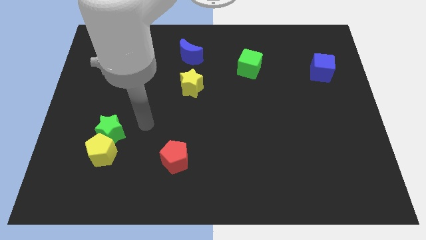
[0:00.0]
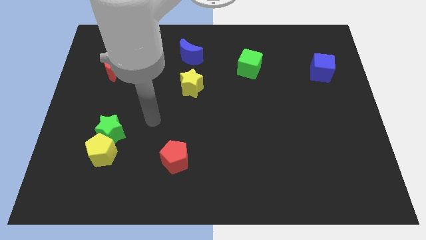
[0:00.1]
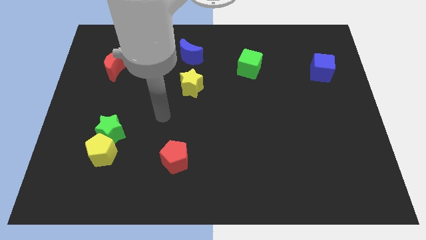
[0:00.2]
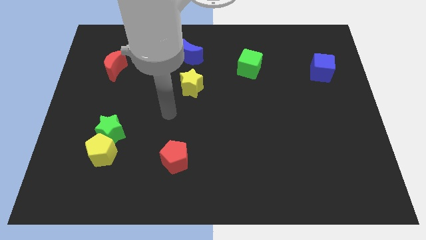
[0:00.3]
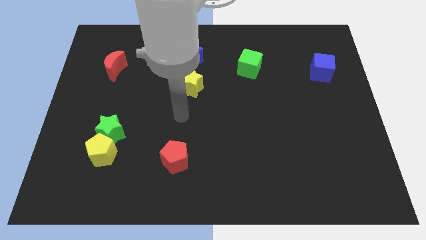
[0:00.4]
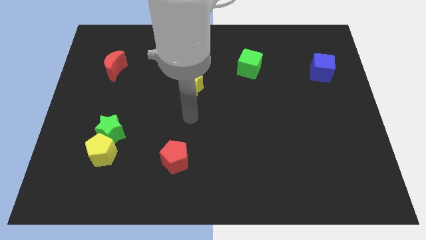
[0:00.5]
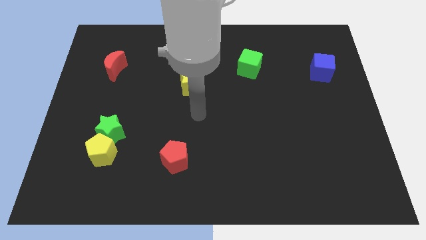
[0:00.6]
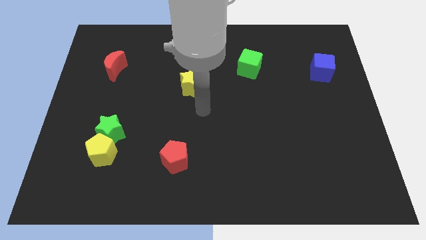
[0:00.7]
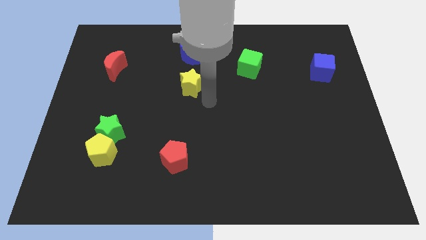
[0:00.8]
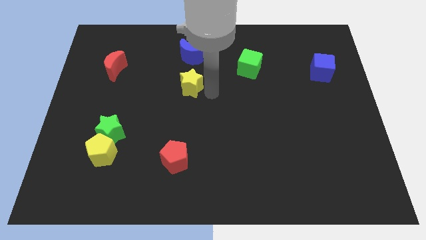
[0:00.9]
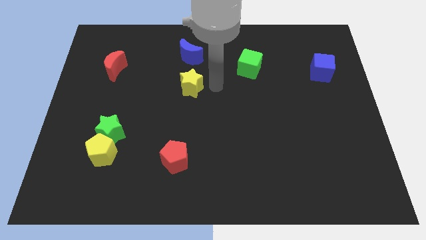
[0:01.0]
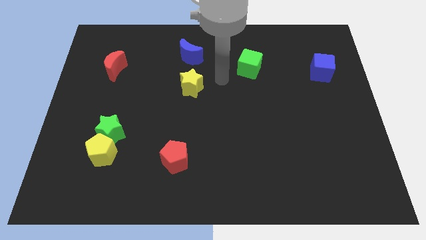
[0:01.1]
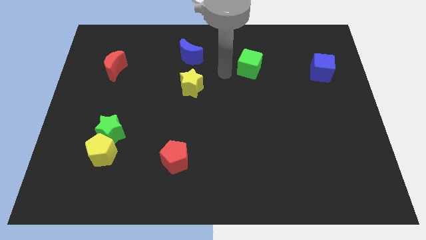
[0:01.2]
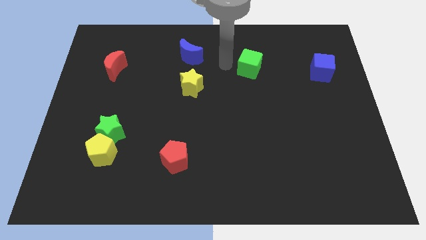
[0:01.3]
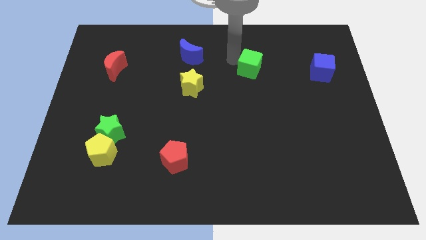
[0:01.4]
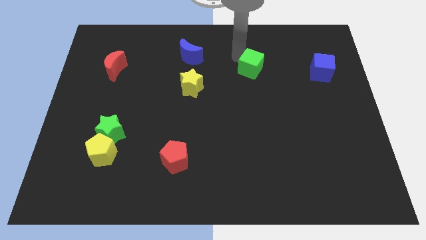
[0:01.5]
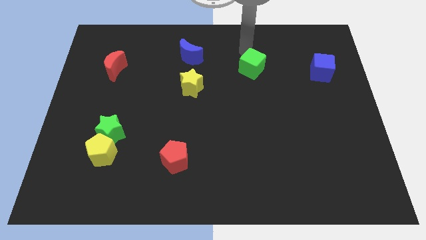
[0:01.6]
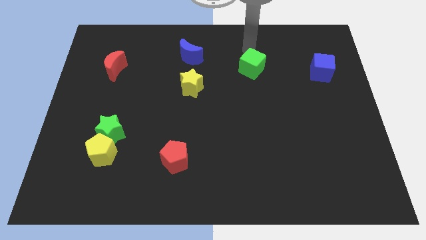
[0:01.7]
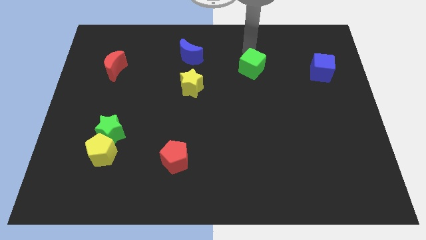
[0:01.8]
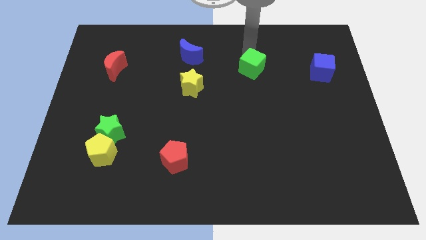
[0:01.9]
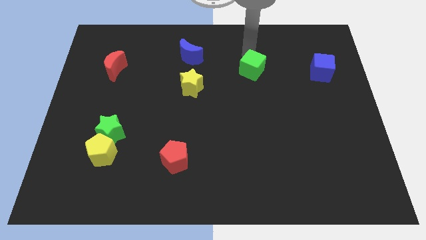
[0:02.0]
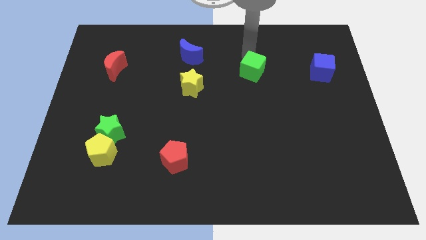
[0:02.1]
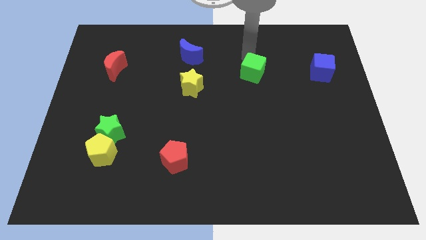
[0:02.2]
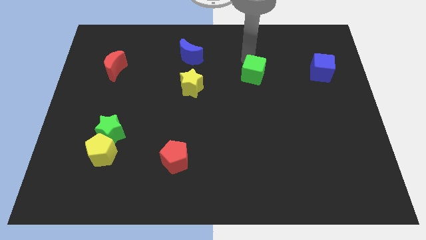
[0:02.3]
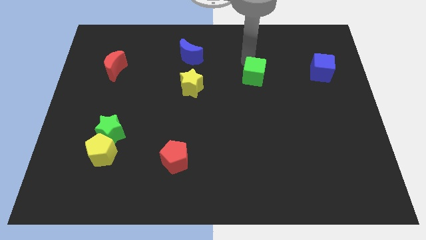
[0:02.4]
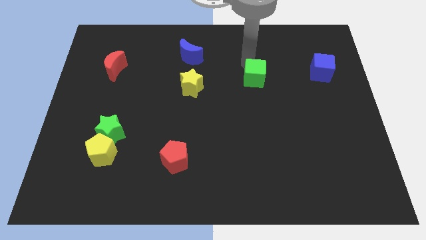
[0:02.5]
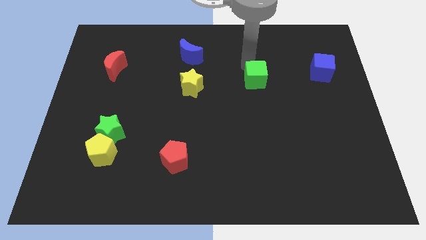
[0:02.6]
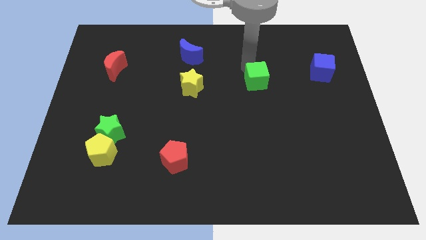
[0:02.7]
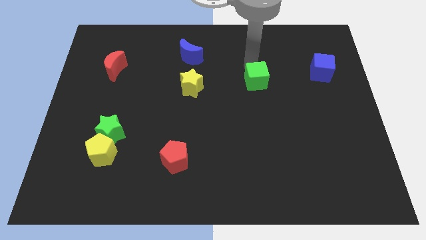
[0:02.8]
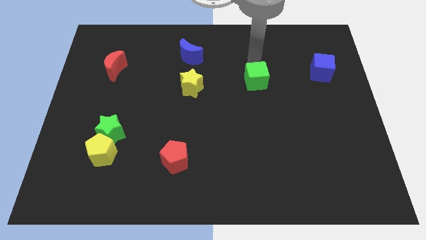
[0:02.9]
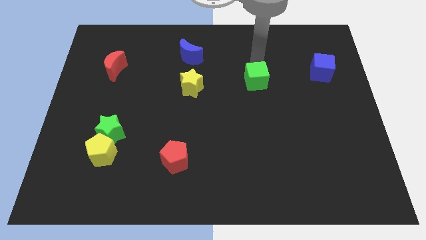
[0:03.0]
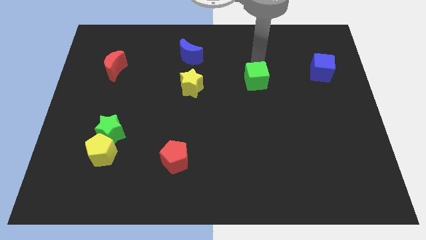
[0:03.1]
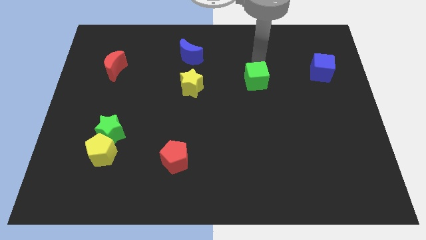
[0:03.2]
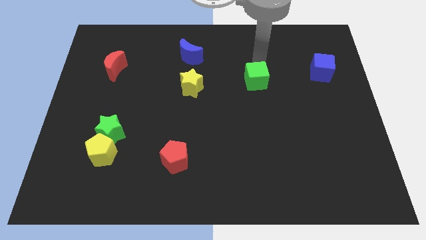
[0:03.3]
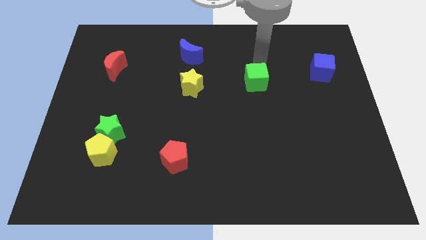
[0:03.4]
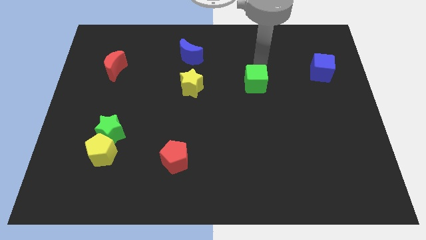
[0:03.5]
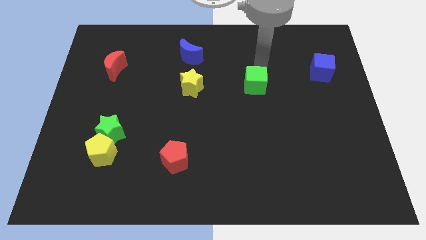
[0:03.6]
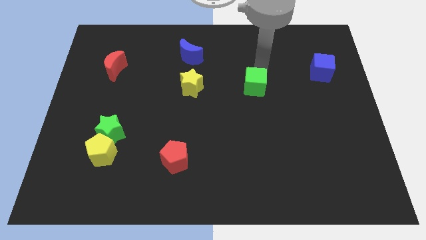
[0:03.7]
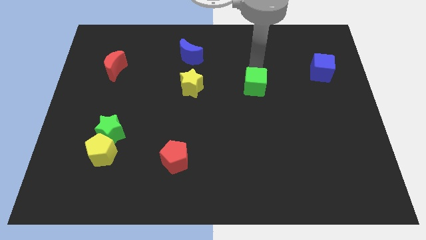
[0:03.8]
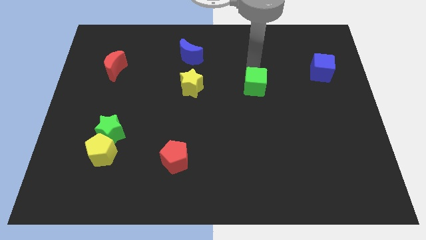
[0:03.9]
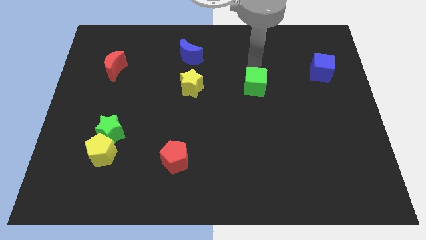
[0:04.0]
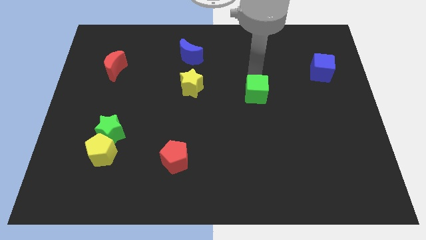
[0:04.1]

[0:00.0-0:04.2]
slightly move the green cube downwards

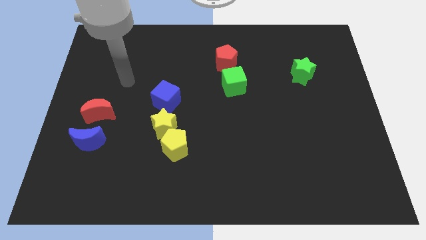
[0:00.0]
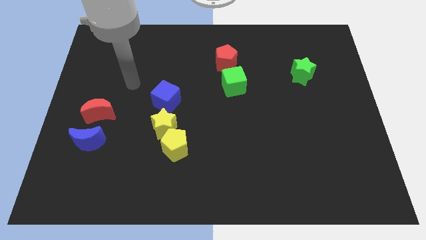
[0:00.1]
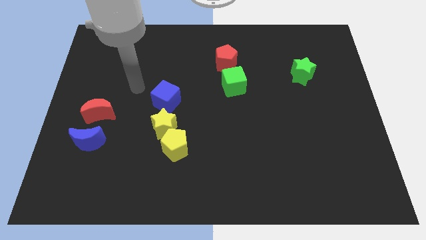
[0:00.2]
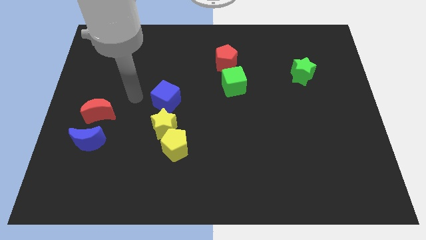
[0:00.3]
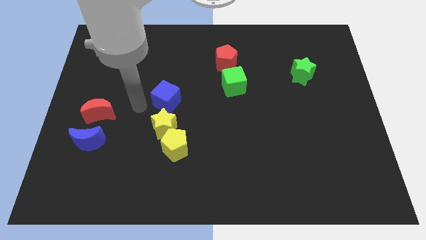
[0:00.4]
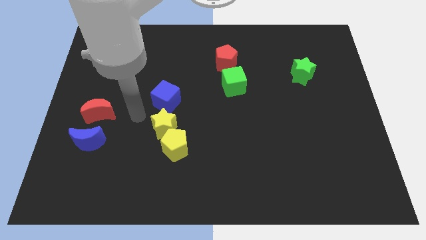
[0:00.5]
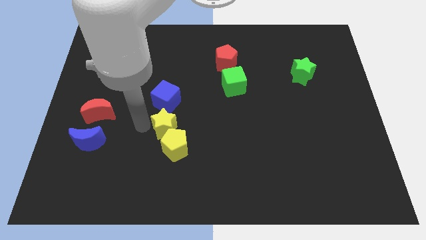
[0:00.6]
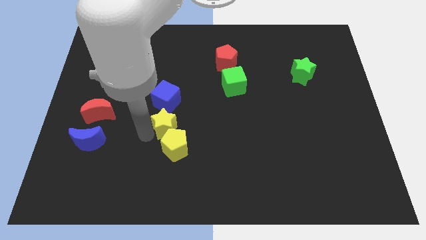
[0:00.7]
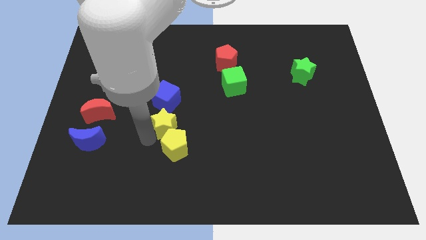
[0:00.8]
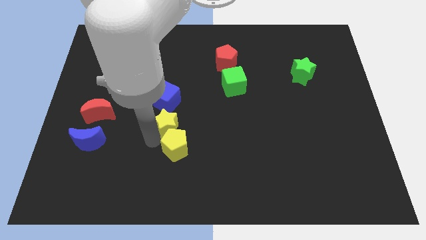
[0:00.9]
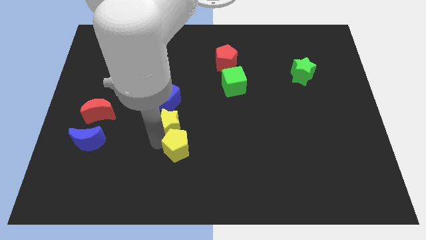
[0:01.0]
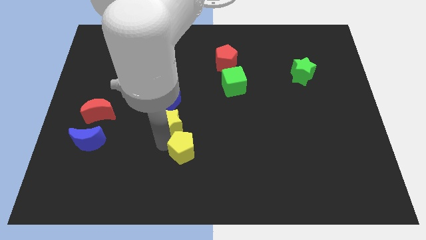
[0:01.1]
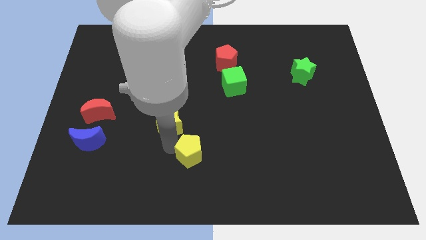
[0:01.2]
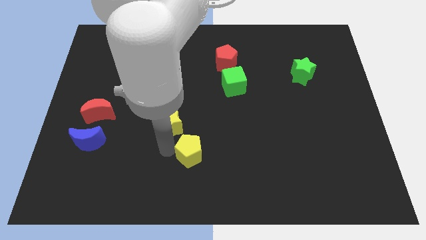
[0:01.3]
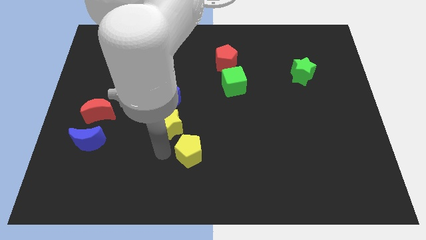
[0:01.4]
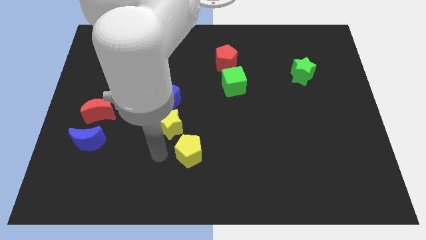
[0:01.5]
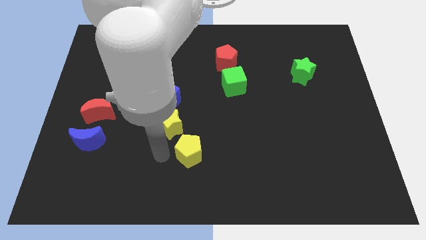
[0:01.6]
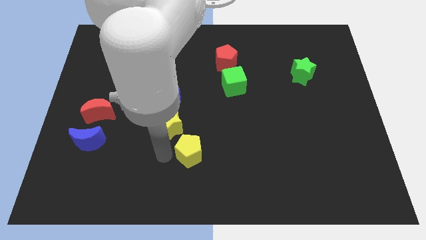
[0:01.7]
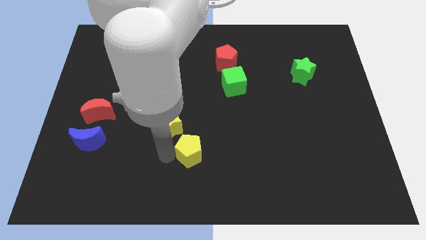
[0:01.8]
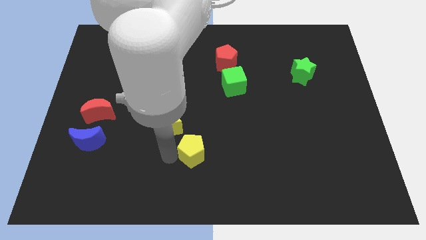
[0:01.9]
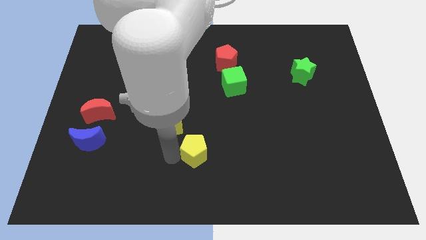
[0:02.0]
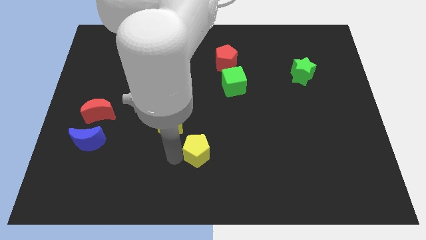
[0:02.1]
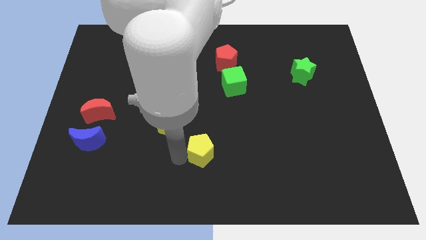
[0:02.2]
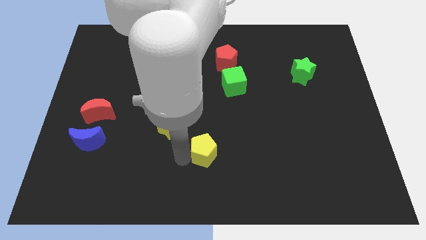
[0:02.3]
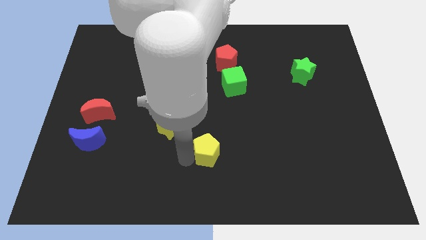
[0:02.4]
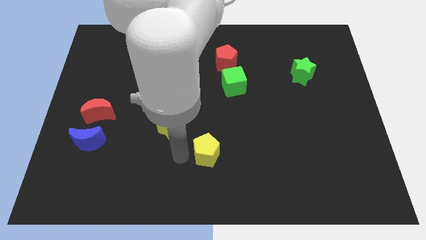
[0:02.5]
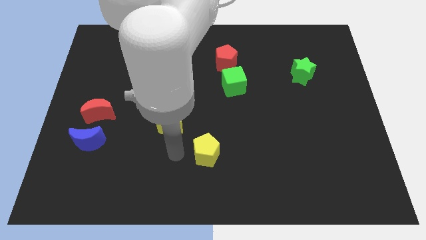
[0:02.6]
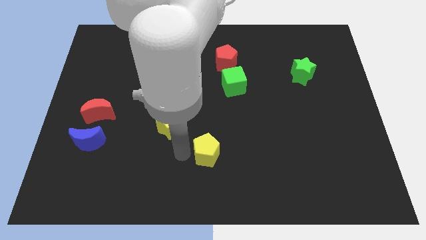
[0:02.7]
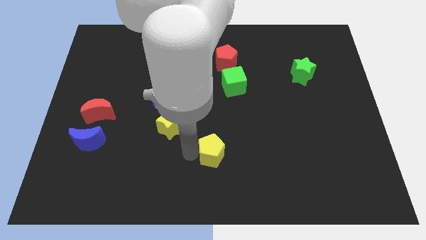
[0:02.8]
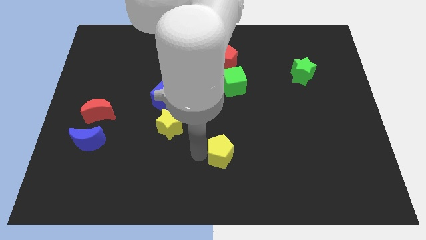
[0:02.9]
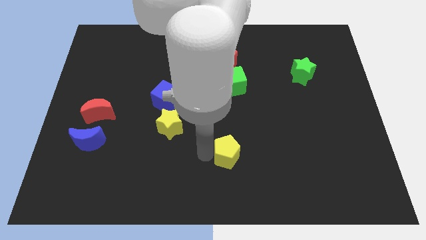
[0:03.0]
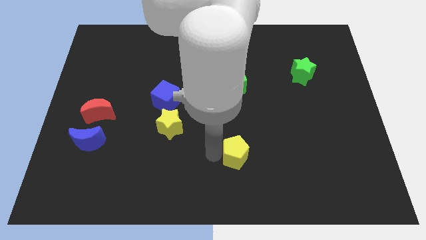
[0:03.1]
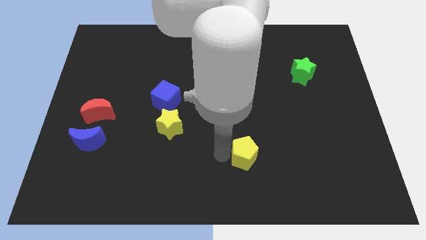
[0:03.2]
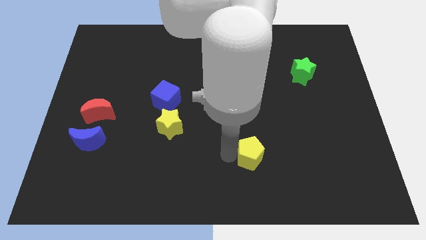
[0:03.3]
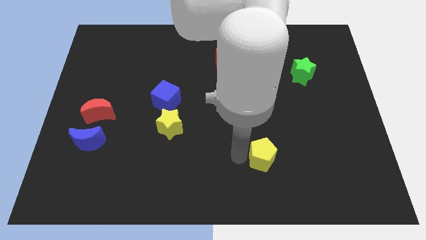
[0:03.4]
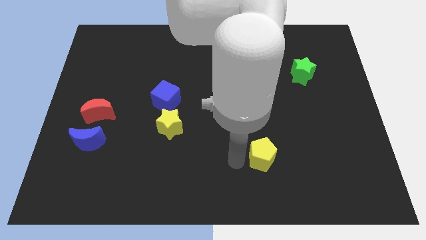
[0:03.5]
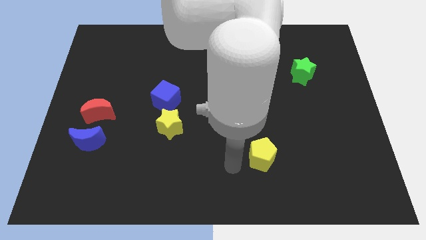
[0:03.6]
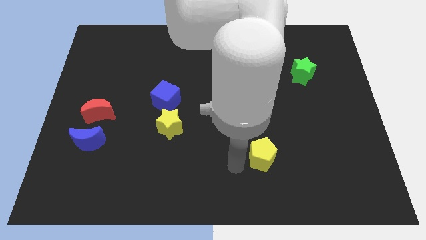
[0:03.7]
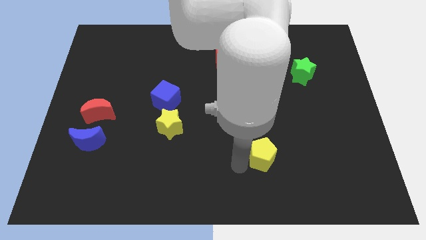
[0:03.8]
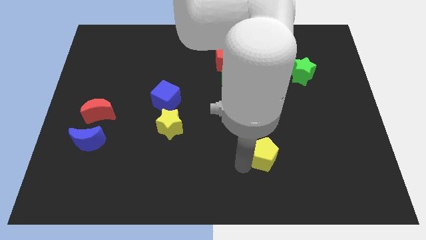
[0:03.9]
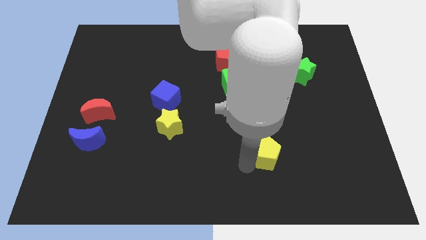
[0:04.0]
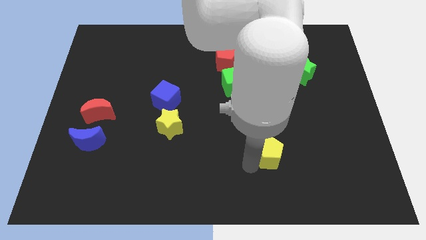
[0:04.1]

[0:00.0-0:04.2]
move the yellow pentagon right
